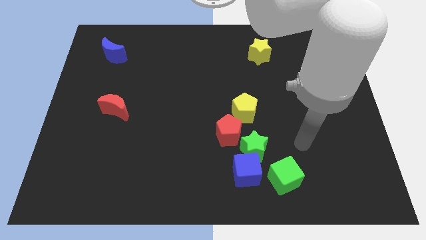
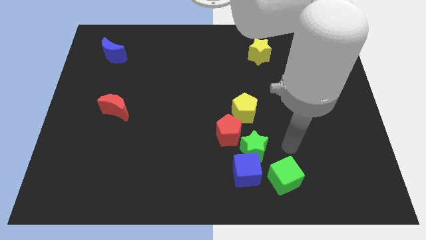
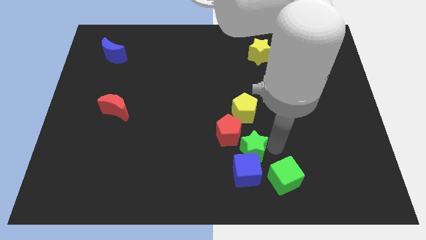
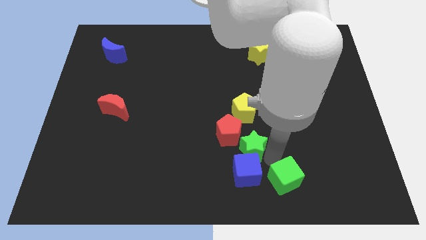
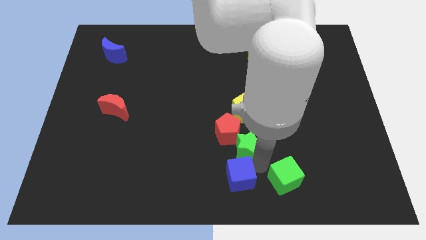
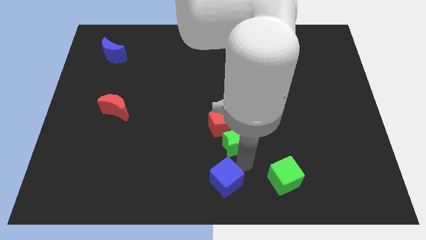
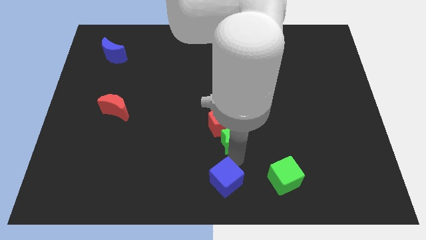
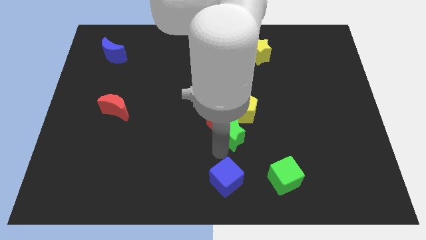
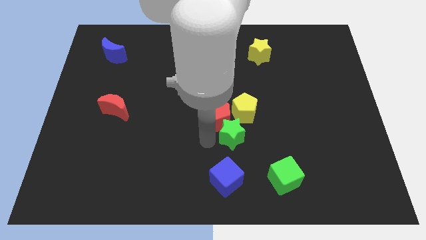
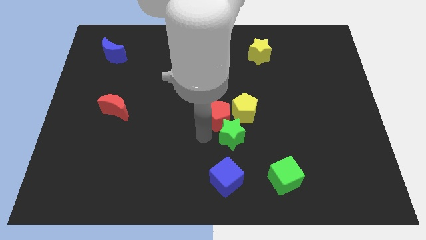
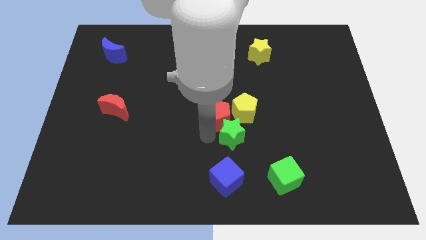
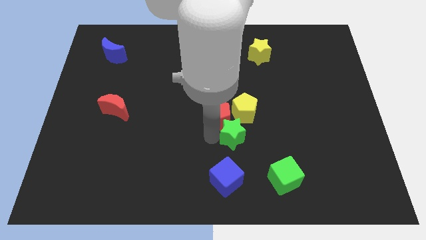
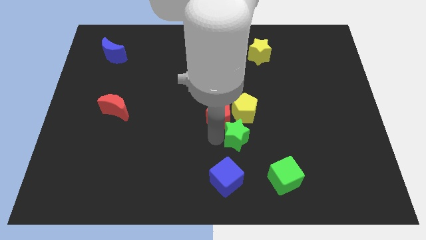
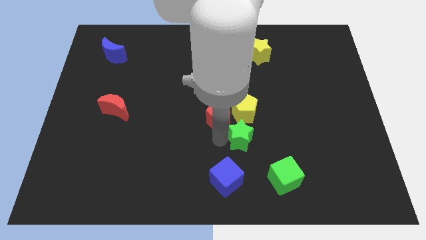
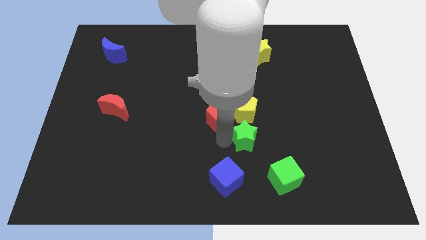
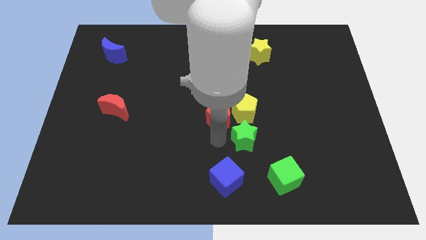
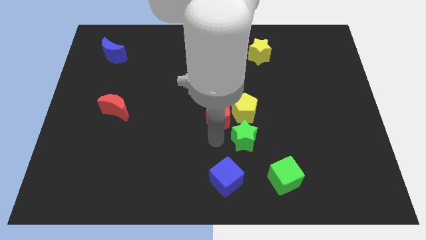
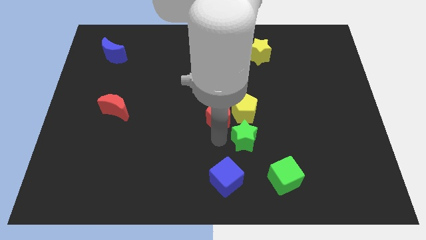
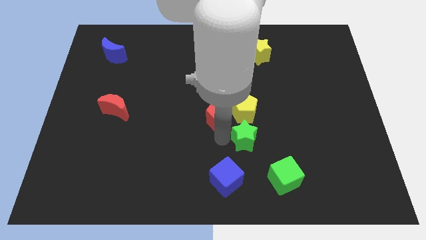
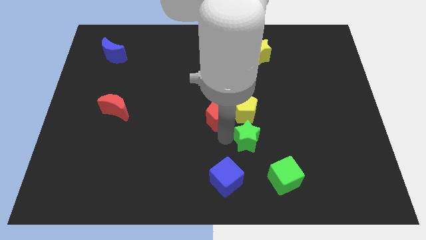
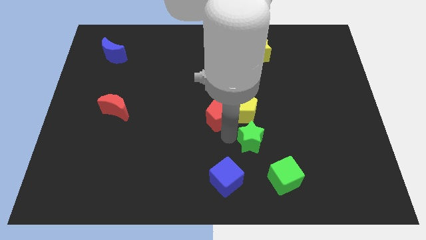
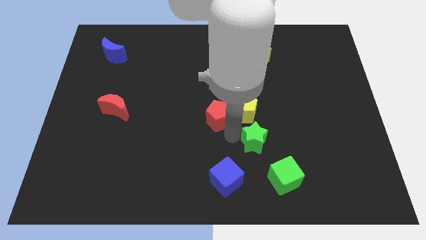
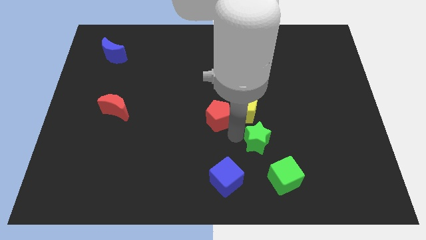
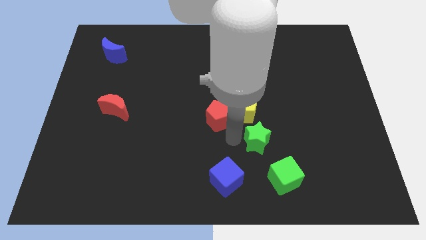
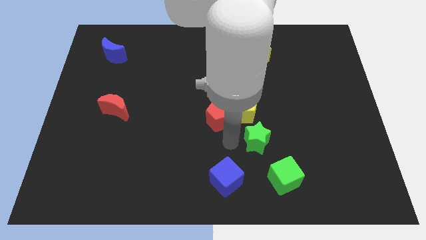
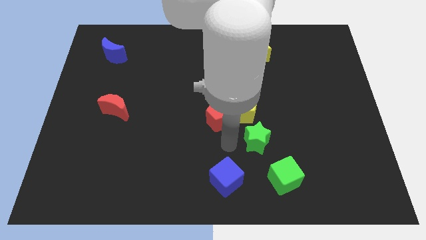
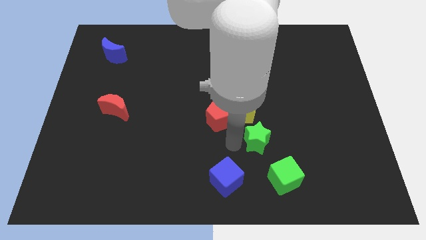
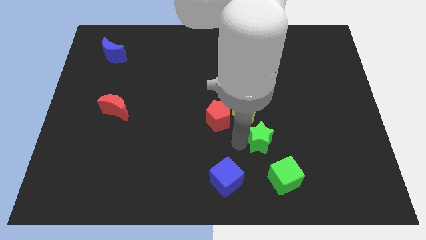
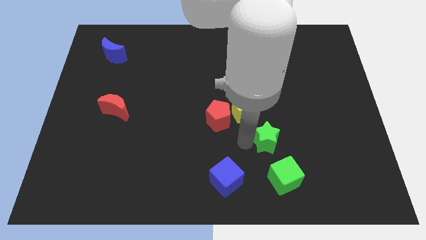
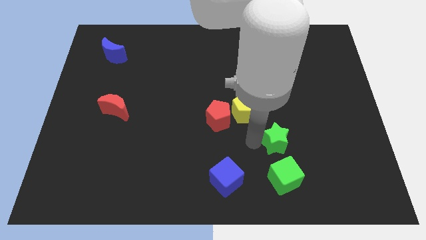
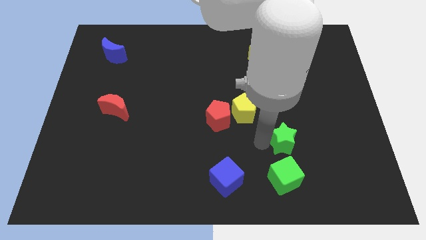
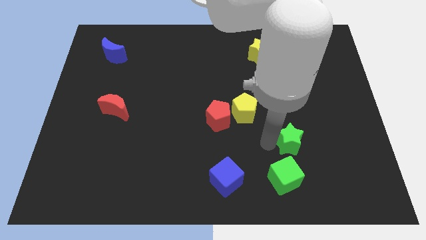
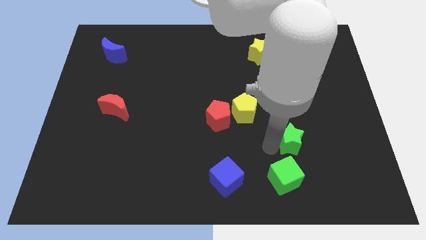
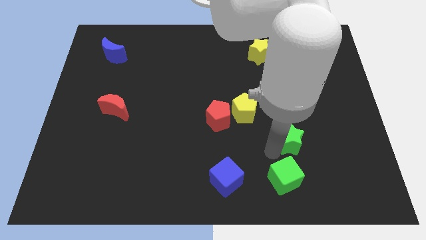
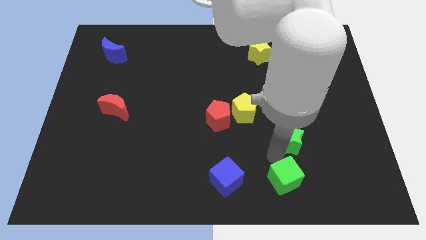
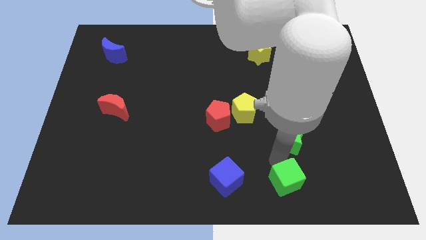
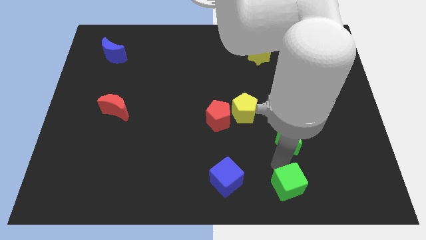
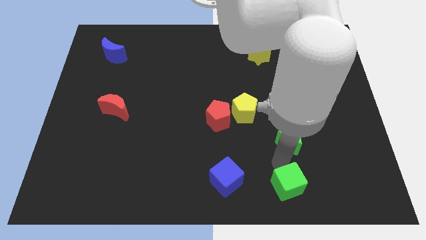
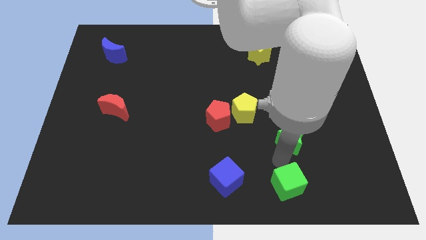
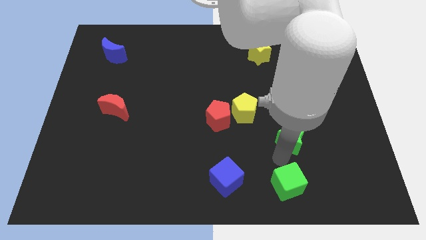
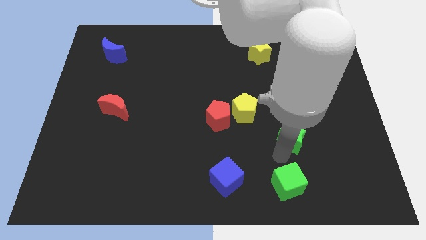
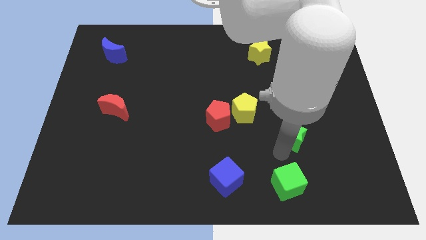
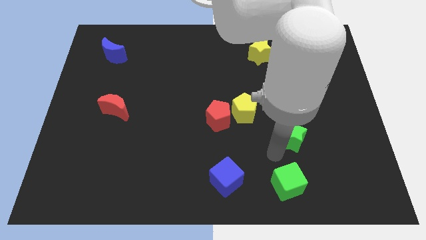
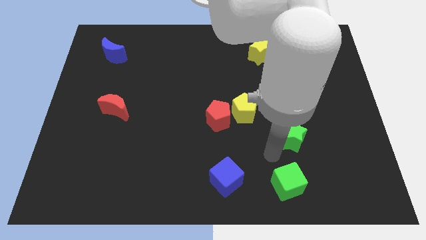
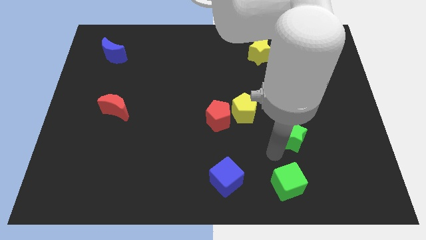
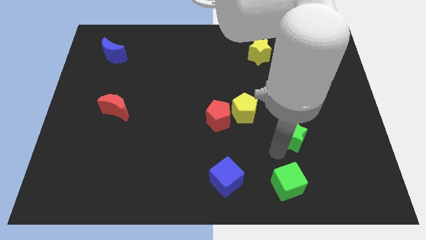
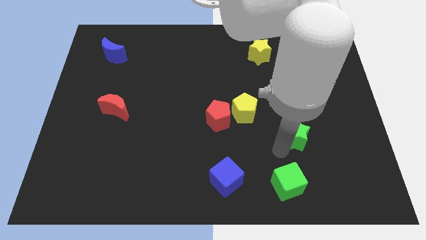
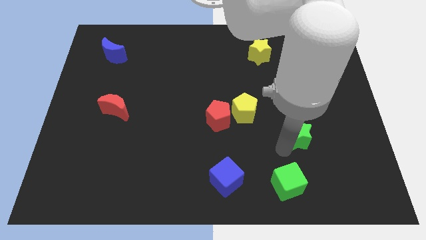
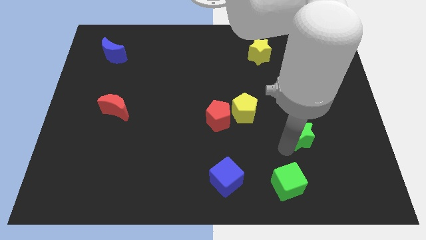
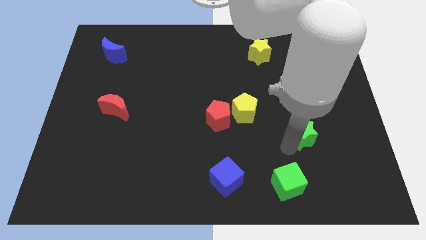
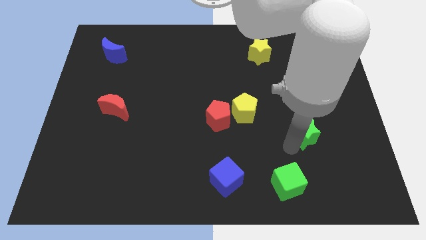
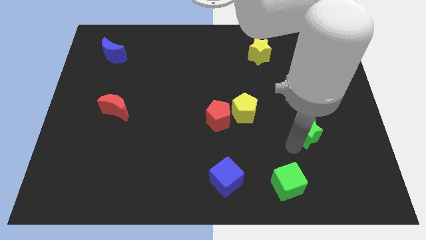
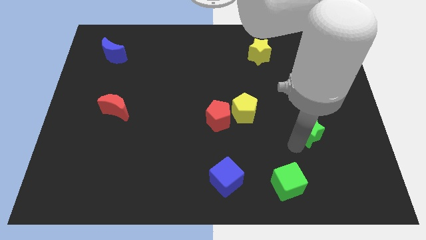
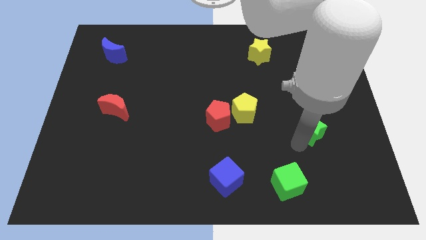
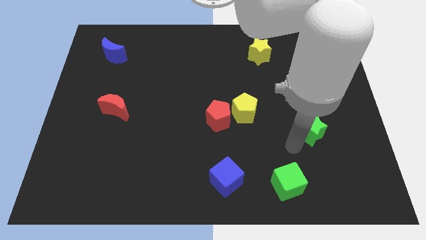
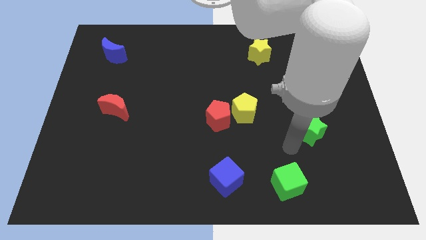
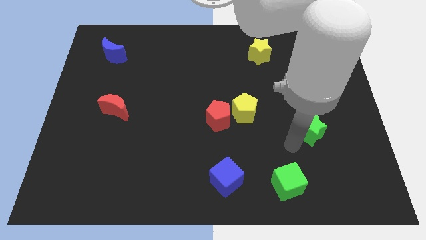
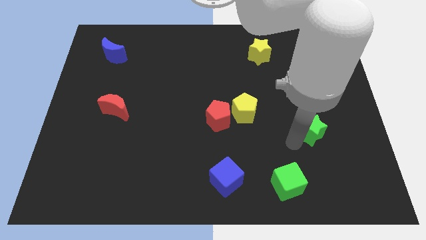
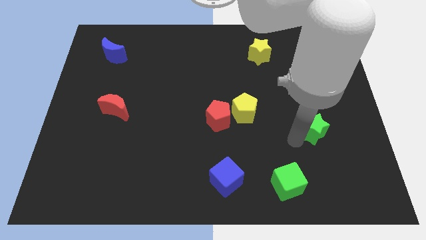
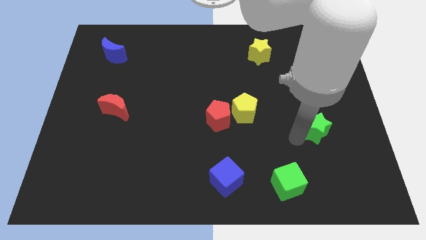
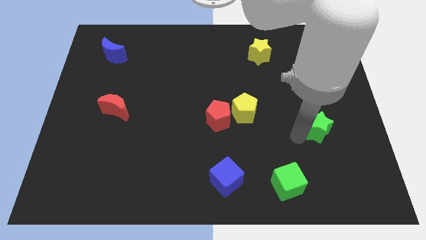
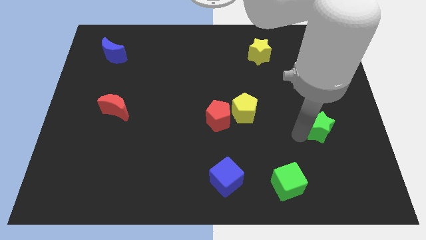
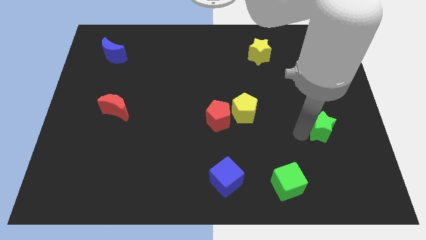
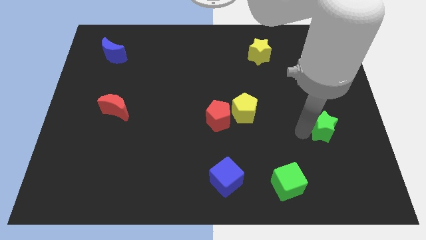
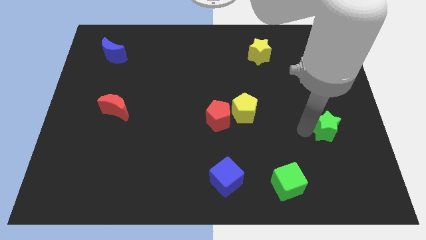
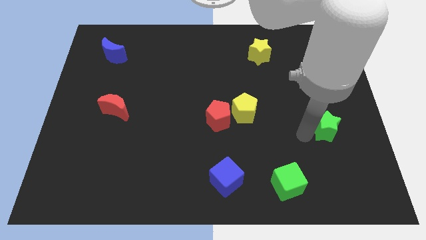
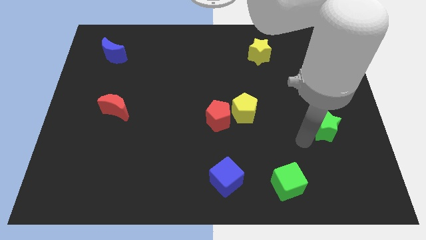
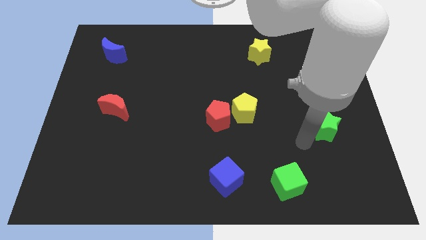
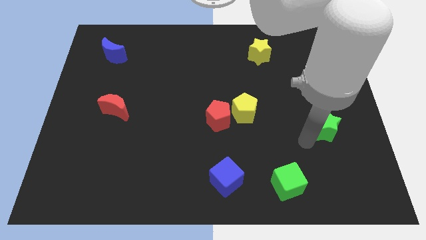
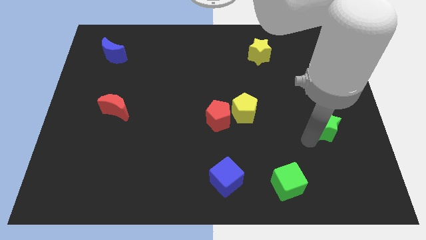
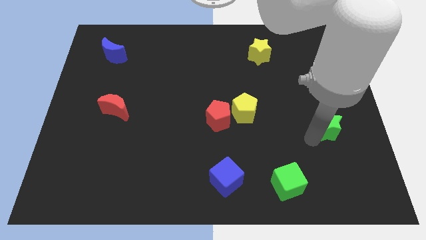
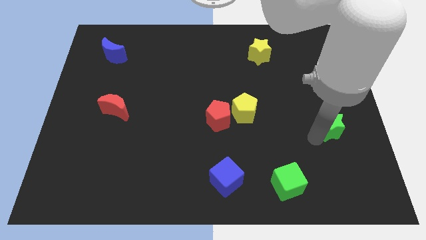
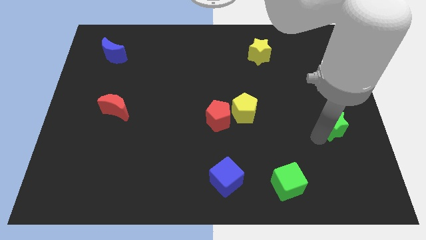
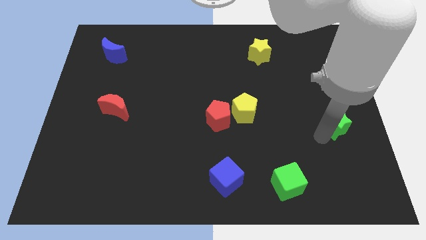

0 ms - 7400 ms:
move the green star to the right side
